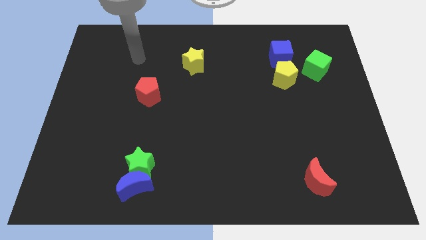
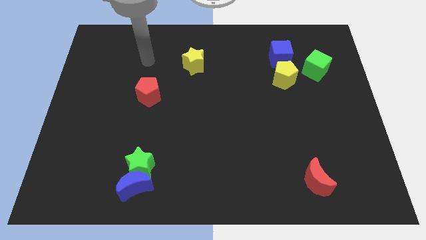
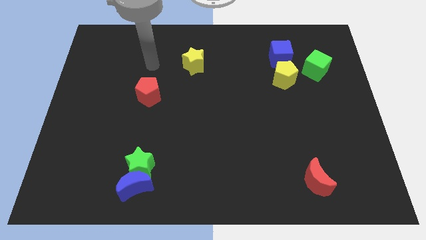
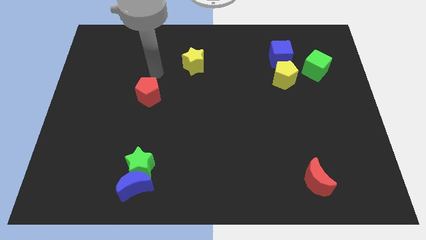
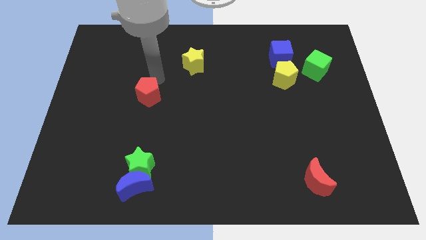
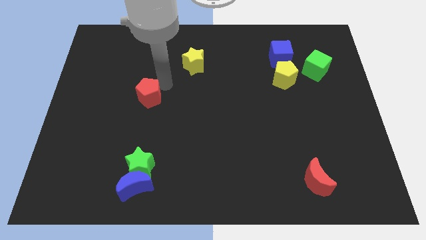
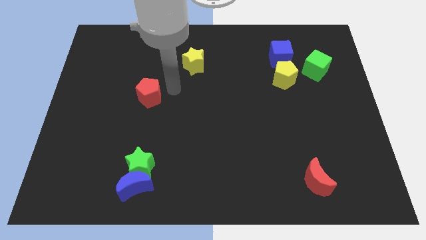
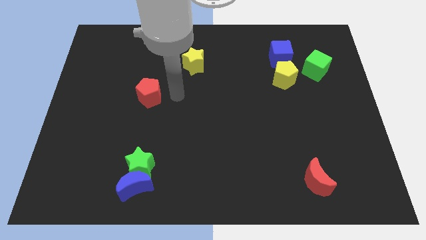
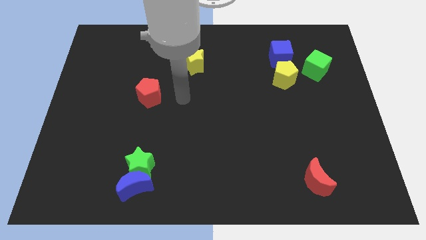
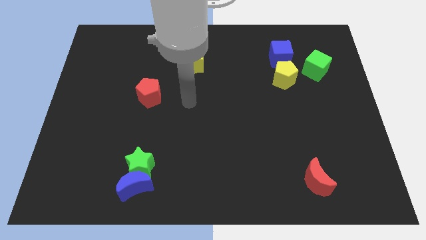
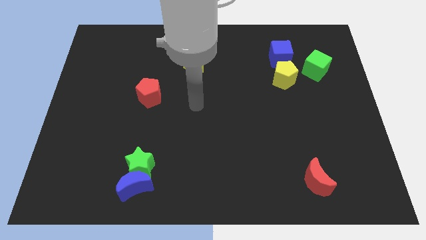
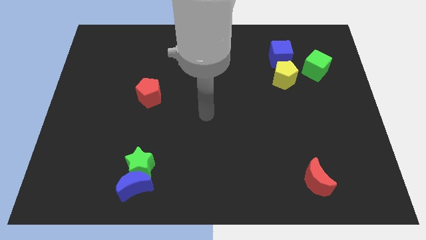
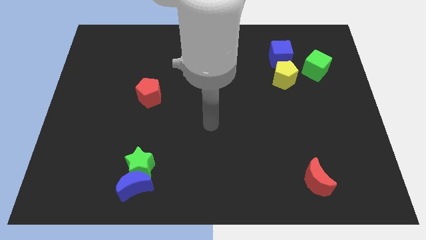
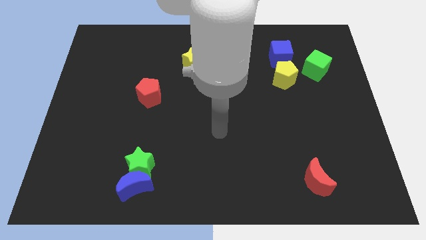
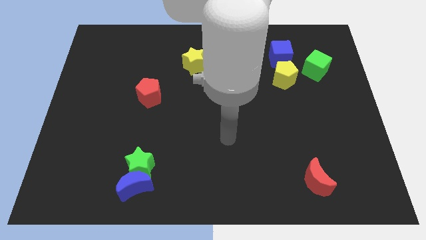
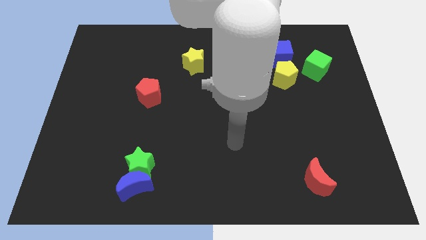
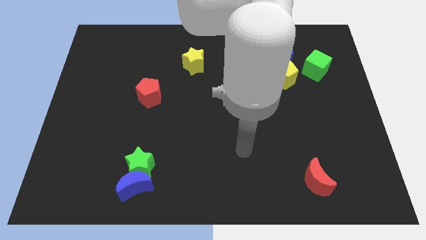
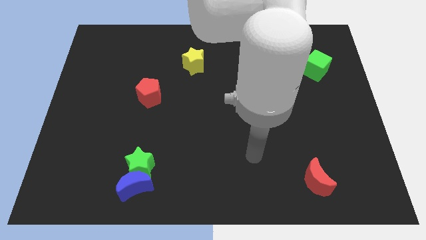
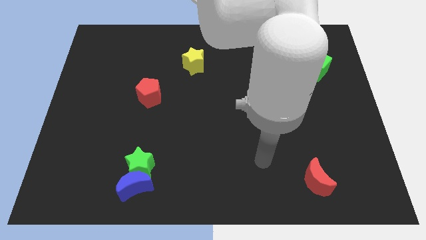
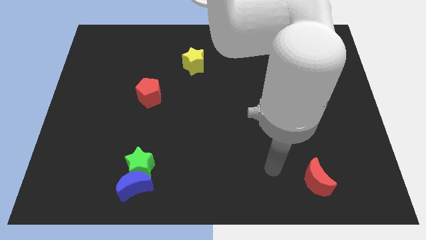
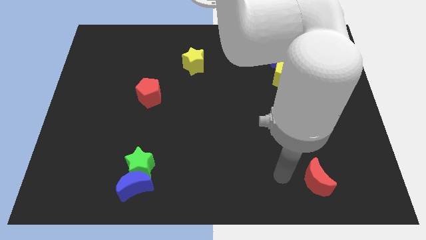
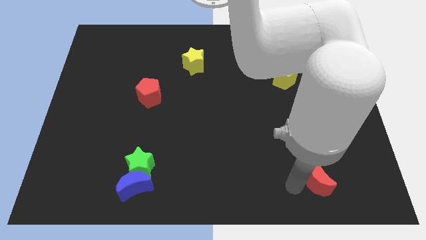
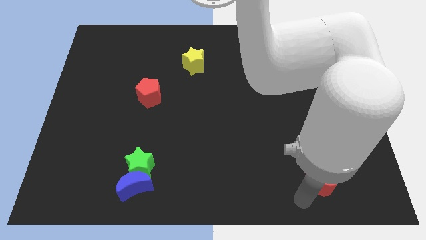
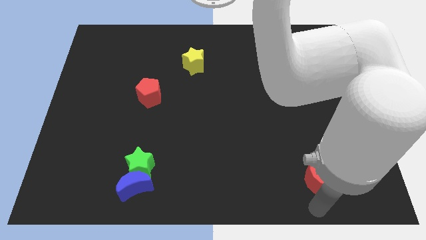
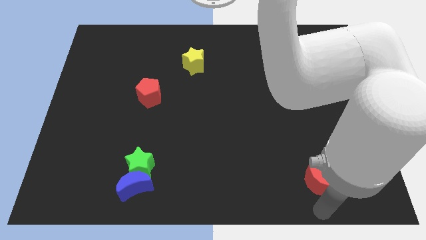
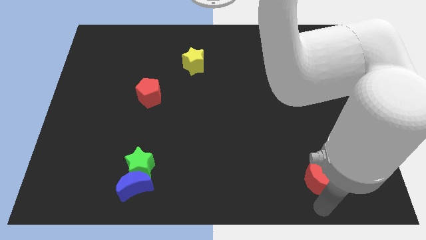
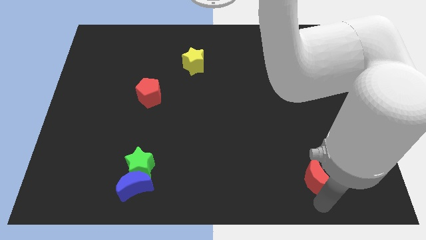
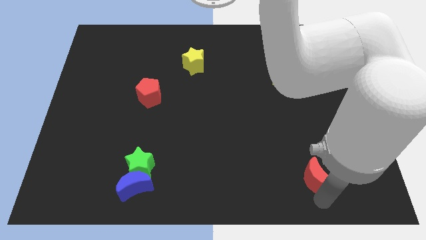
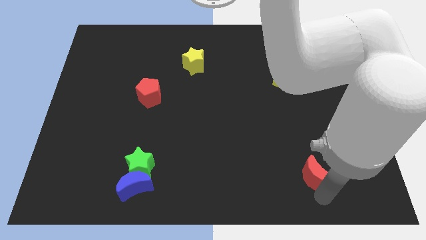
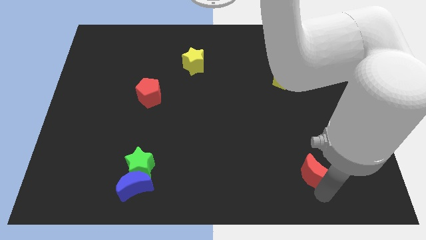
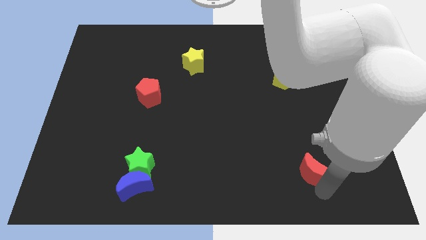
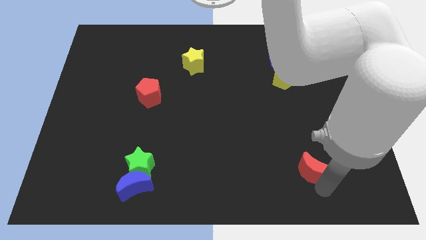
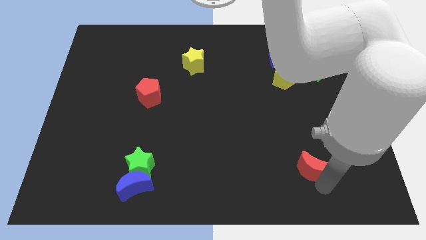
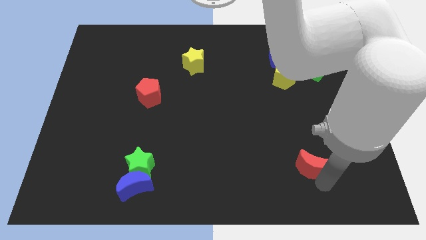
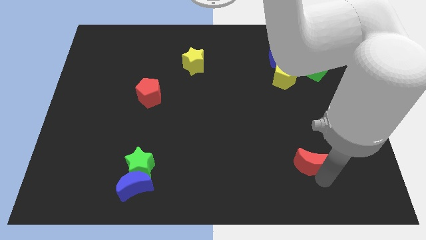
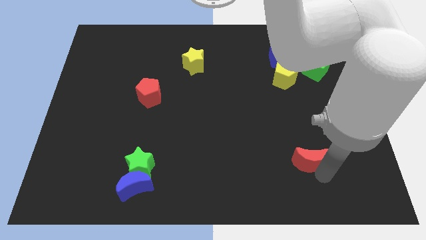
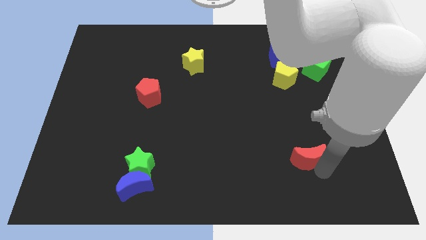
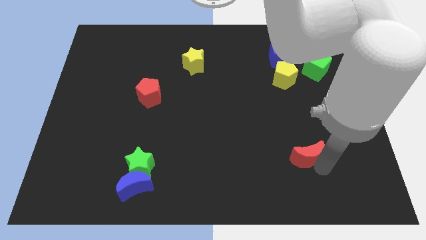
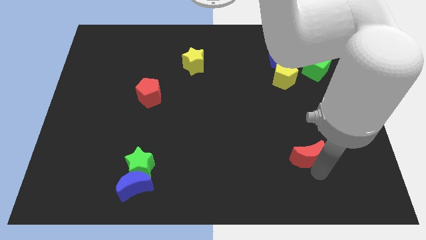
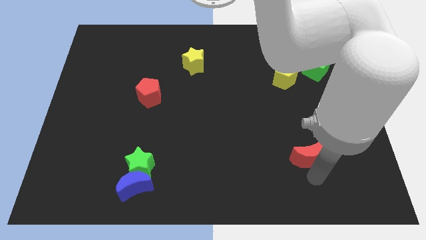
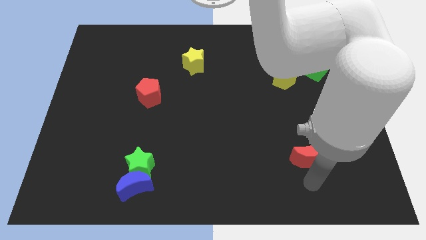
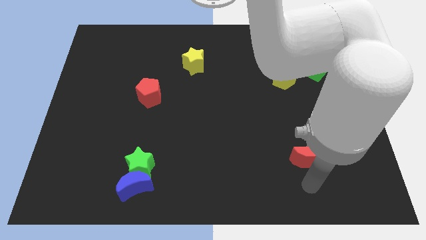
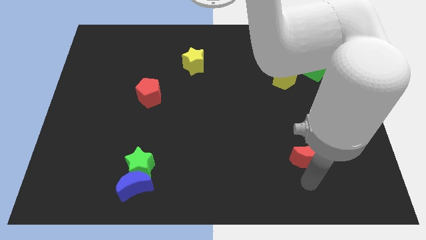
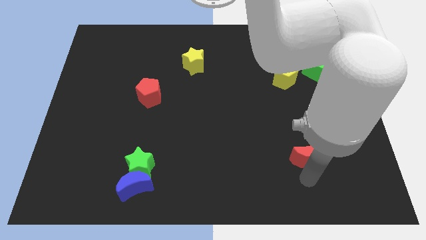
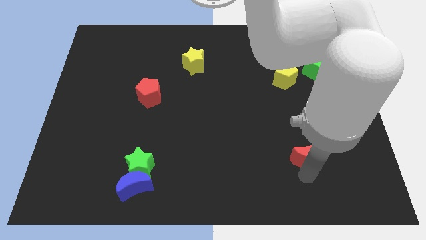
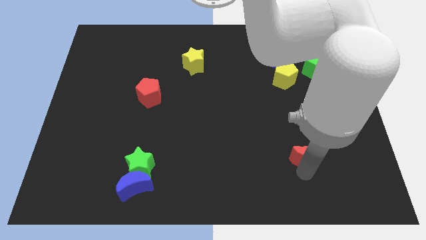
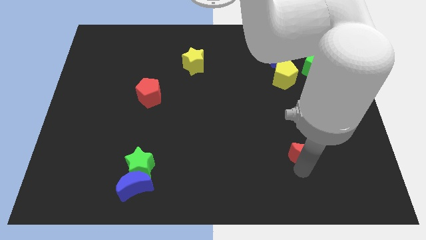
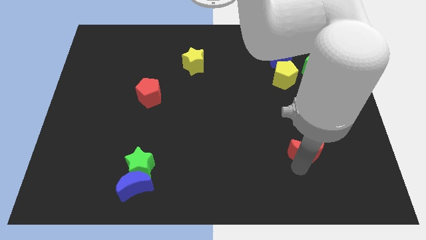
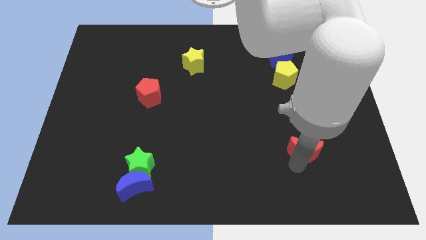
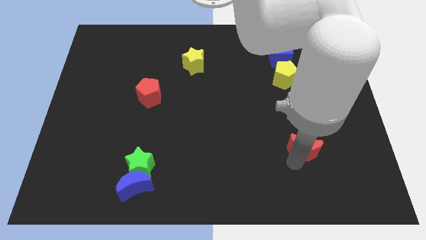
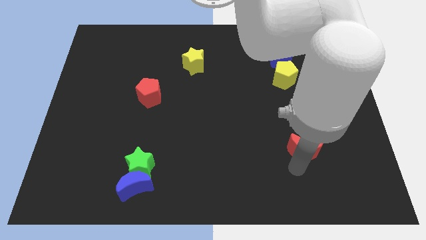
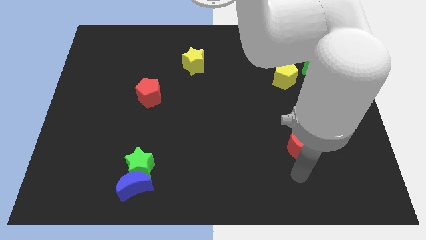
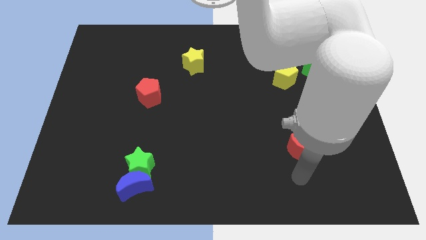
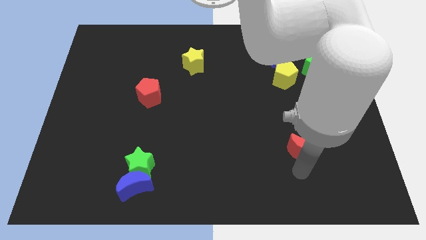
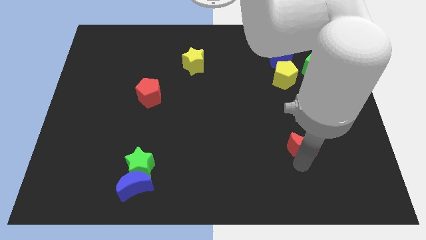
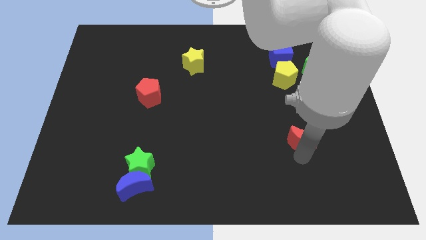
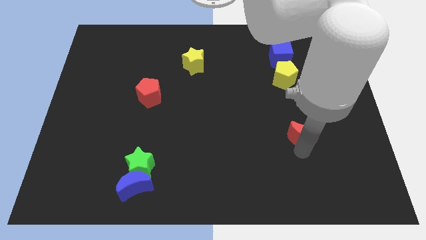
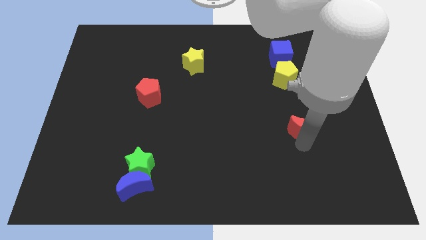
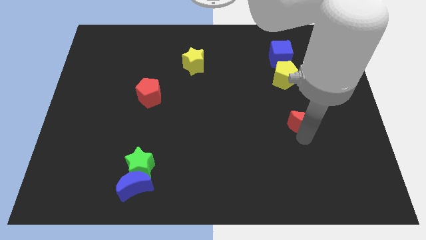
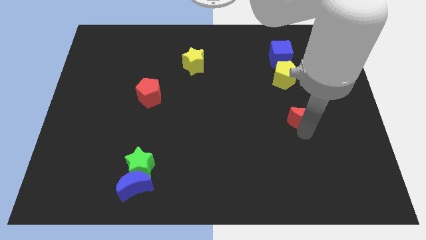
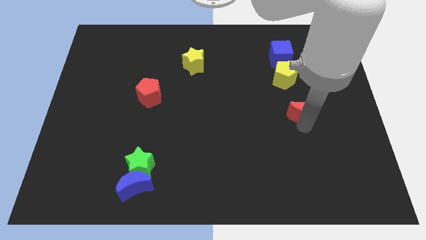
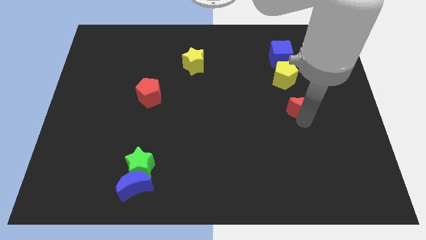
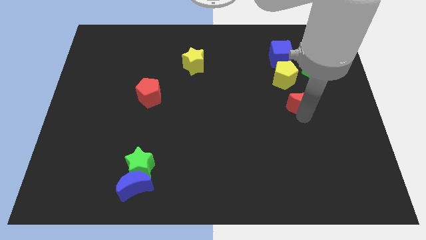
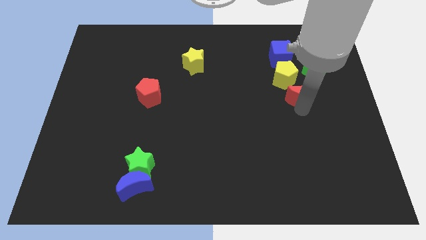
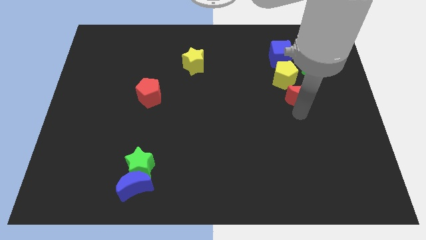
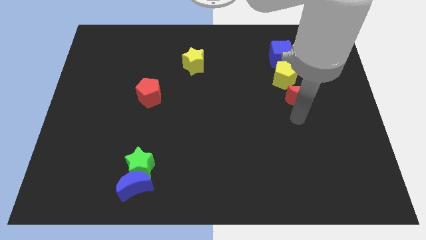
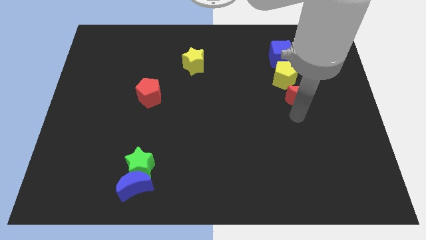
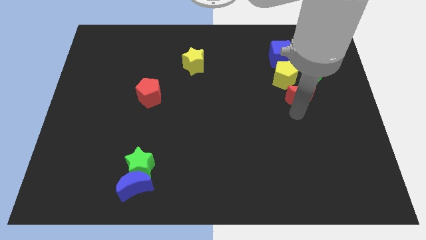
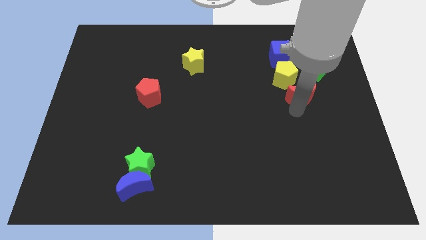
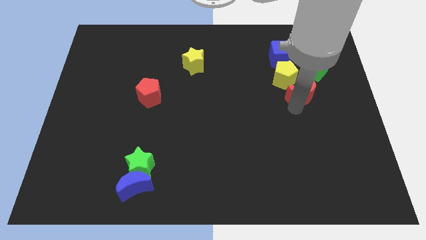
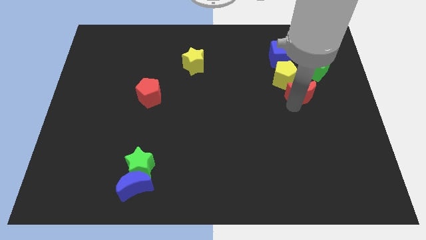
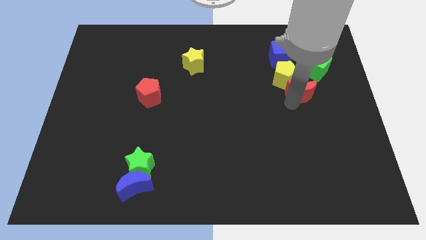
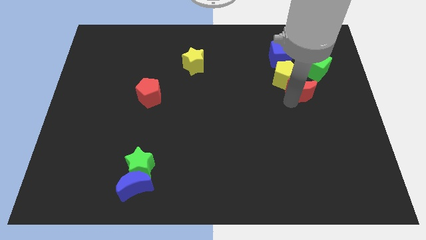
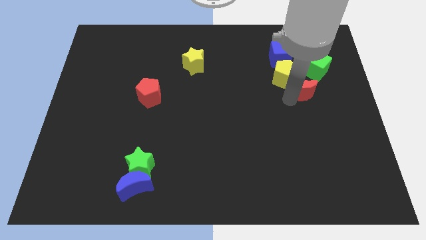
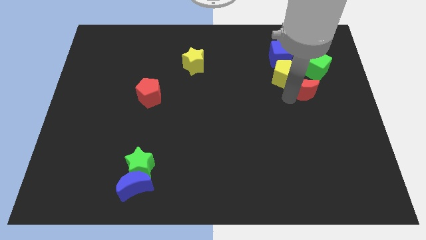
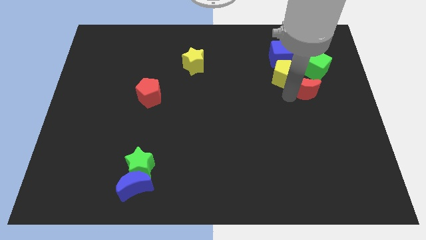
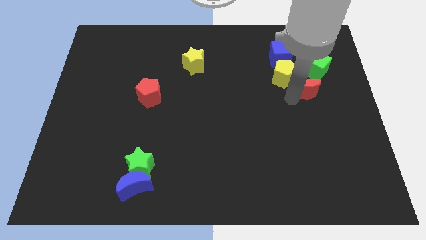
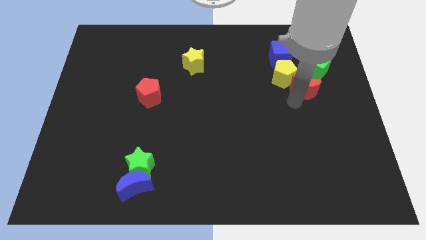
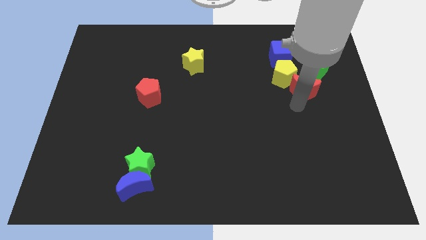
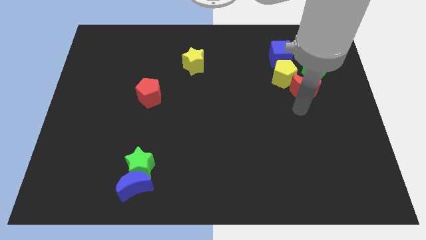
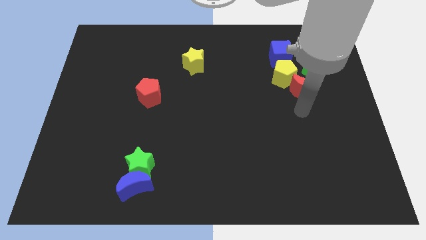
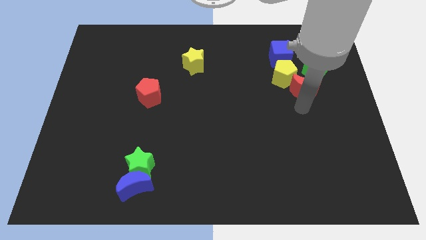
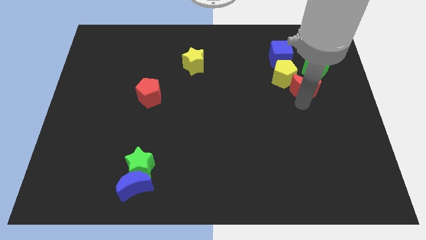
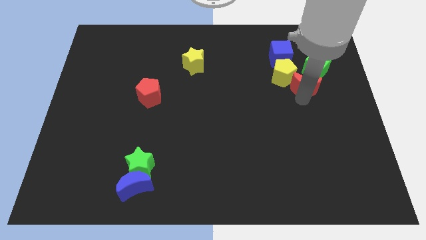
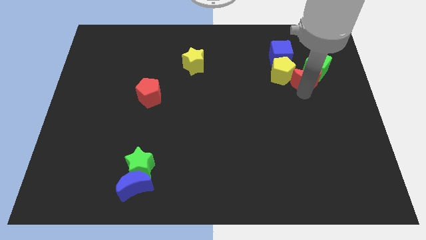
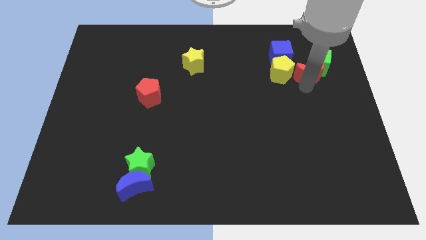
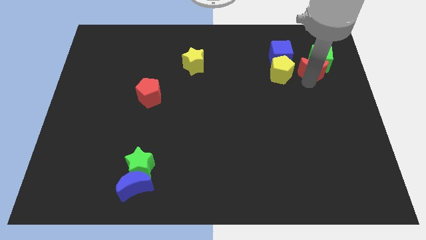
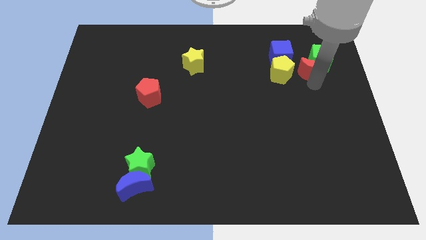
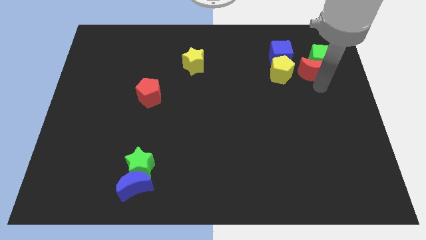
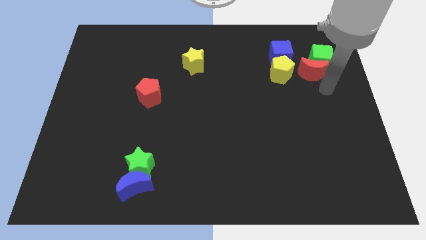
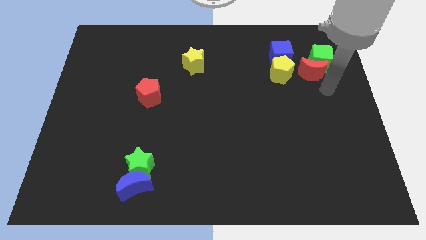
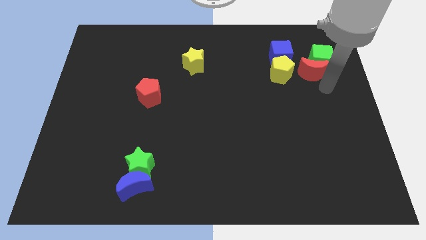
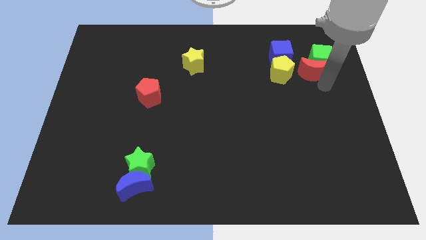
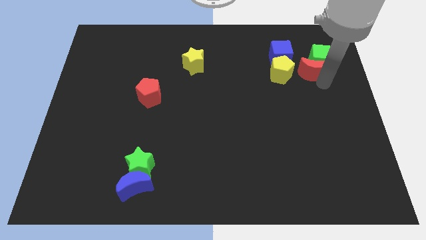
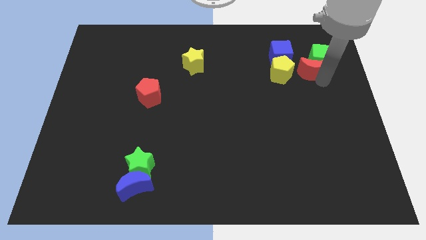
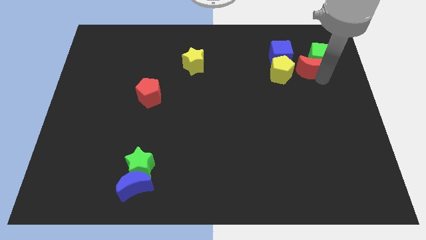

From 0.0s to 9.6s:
push the red moon to the top right side of the yellow pentagon
